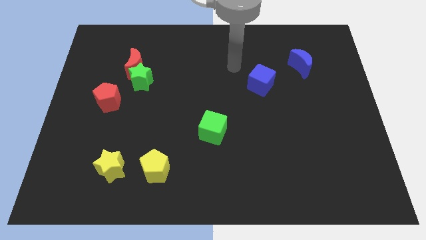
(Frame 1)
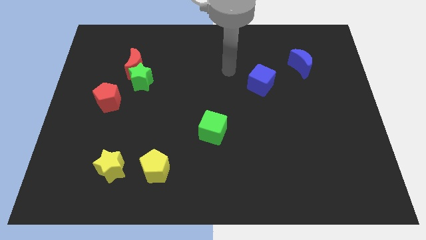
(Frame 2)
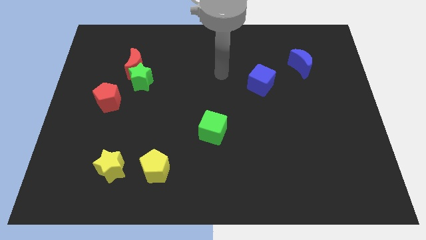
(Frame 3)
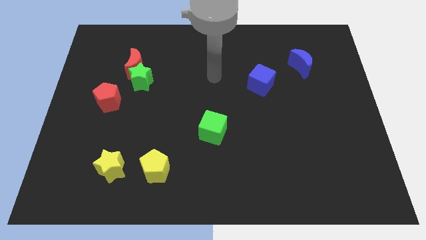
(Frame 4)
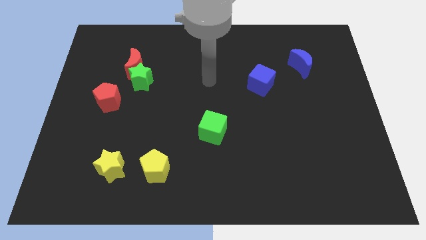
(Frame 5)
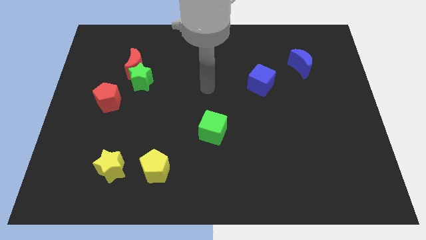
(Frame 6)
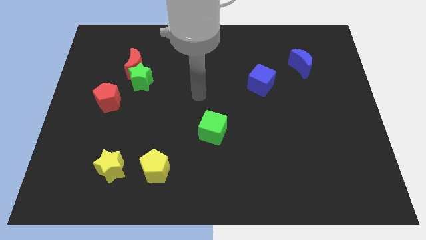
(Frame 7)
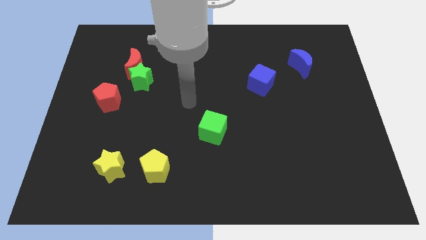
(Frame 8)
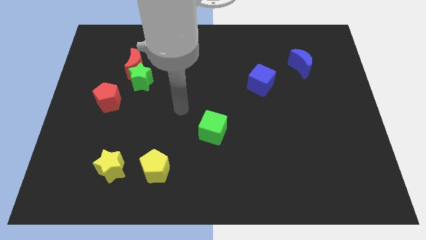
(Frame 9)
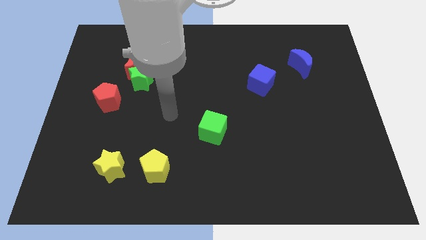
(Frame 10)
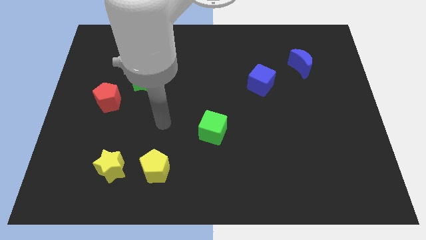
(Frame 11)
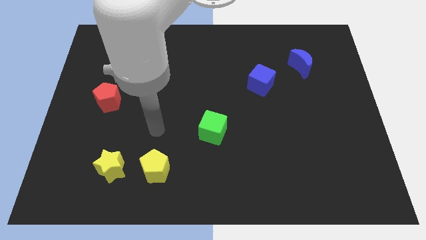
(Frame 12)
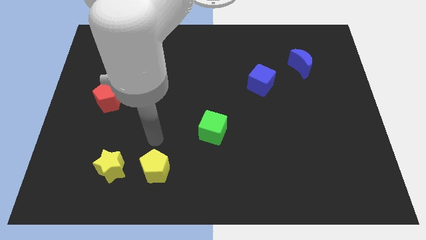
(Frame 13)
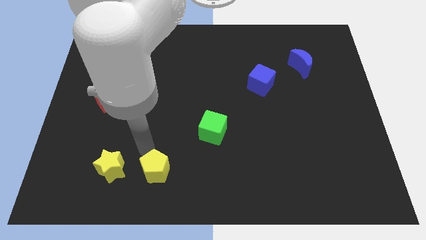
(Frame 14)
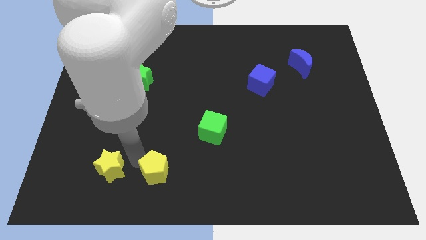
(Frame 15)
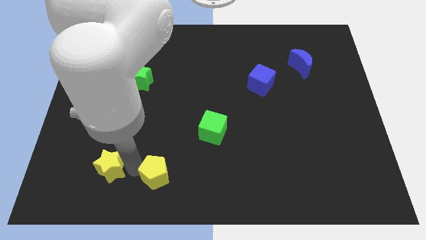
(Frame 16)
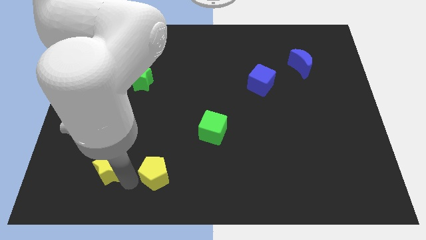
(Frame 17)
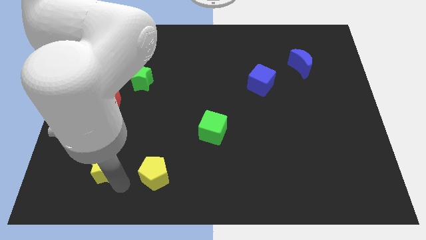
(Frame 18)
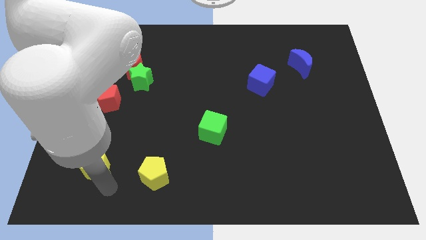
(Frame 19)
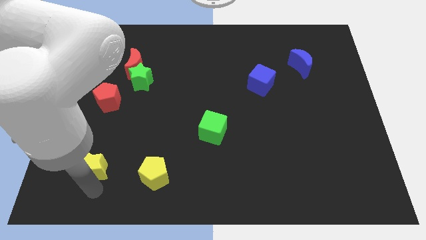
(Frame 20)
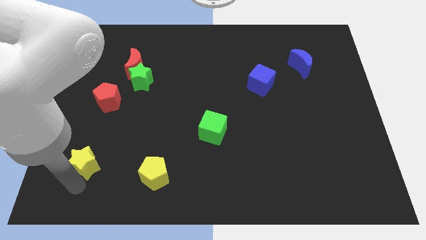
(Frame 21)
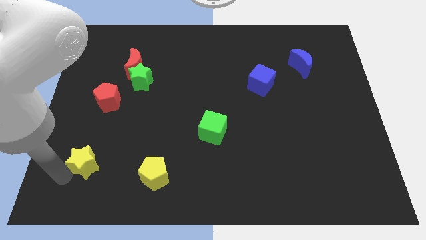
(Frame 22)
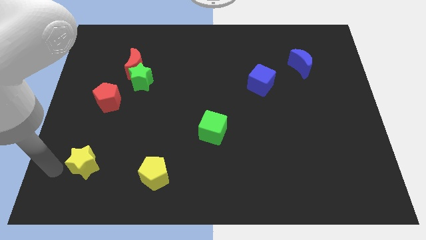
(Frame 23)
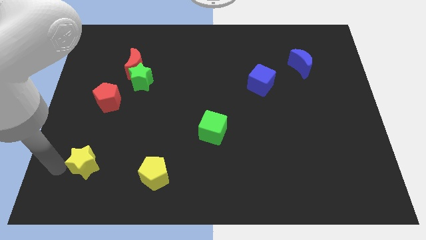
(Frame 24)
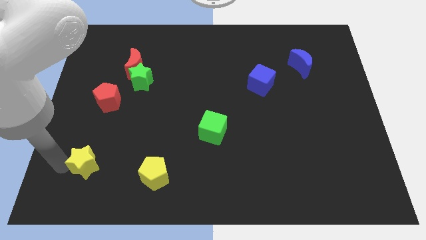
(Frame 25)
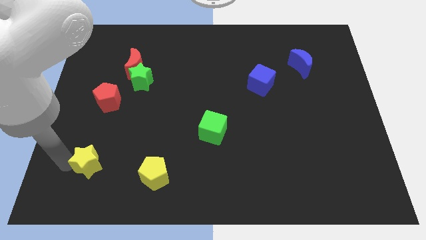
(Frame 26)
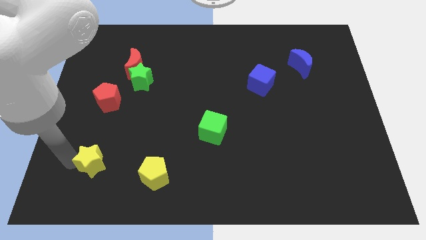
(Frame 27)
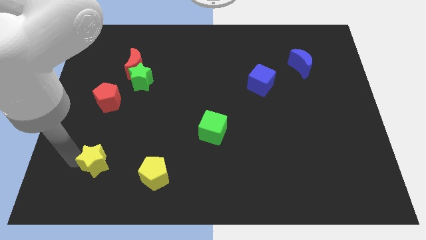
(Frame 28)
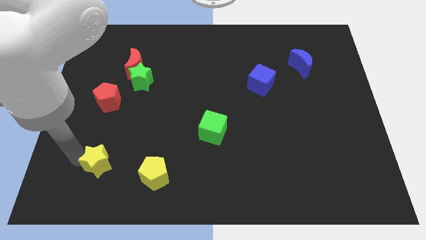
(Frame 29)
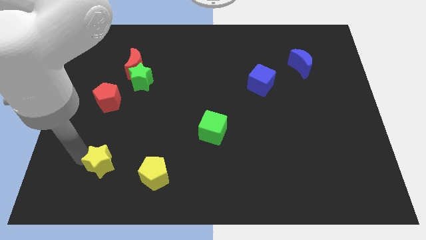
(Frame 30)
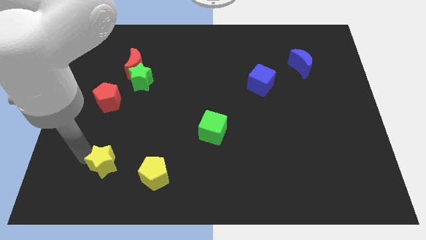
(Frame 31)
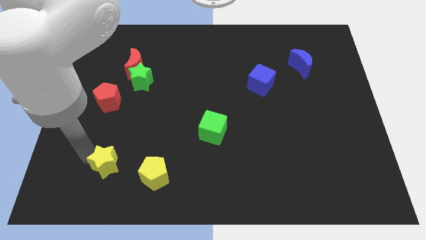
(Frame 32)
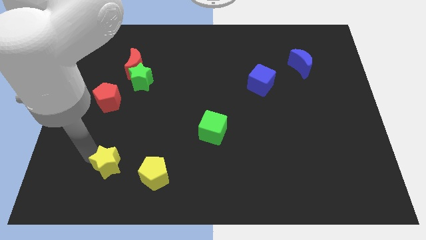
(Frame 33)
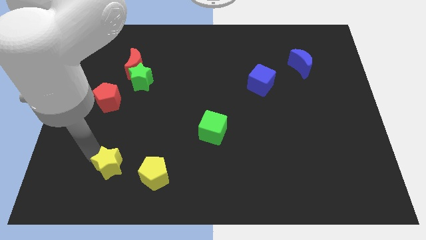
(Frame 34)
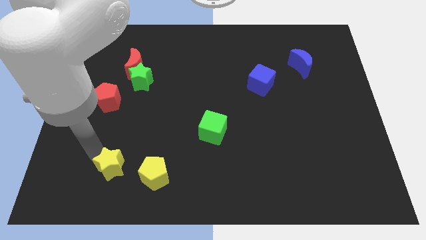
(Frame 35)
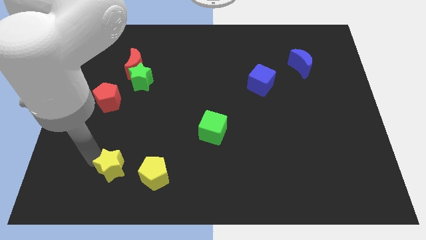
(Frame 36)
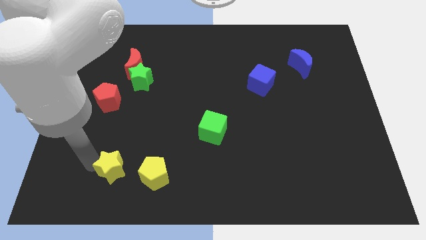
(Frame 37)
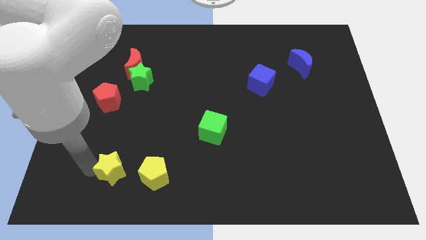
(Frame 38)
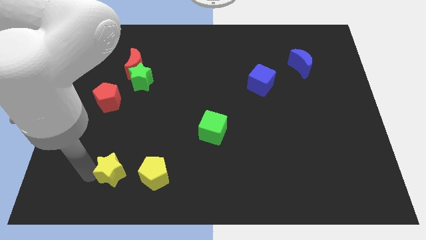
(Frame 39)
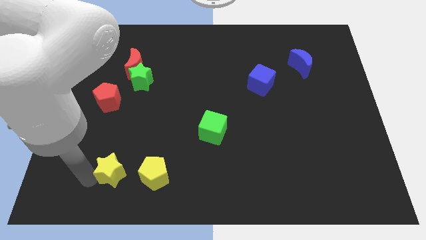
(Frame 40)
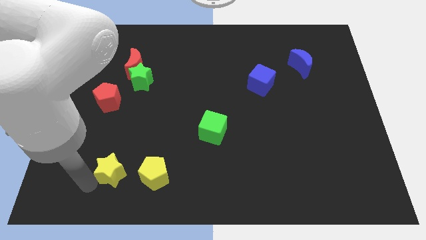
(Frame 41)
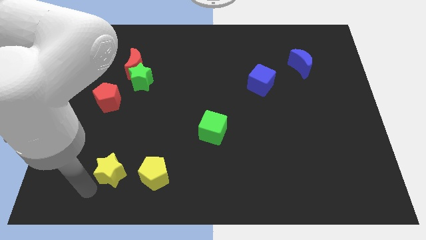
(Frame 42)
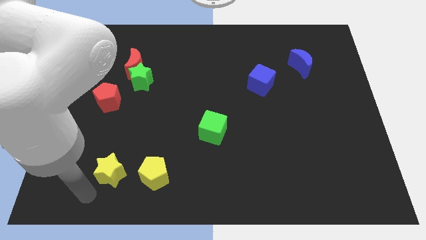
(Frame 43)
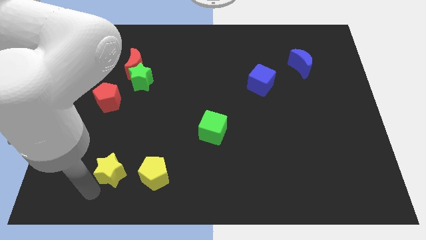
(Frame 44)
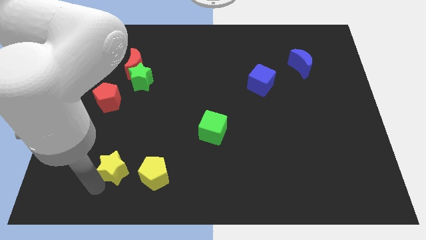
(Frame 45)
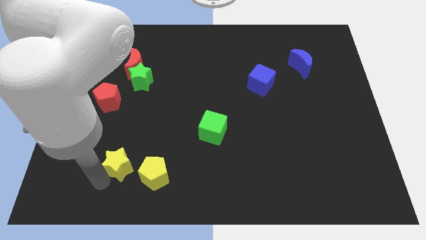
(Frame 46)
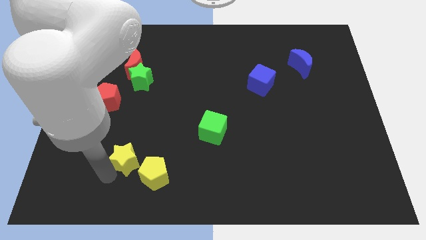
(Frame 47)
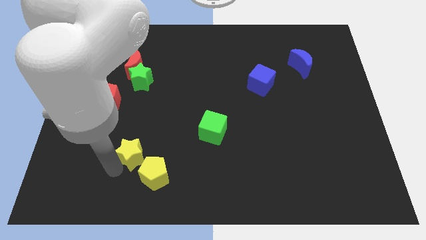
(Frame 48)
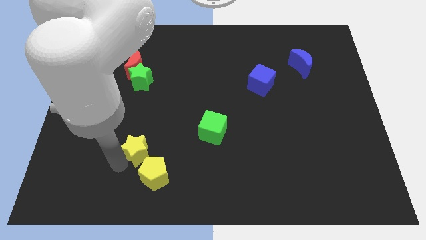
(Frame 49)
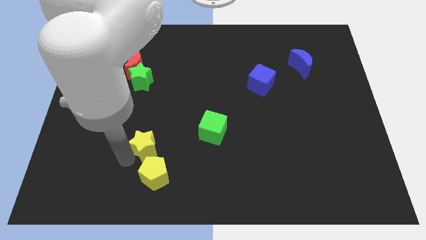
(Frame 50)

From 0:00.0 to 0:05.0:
push the yellow star a bit up and then right

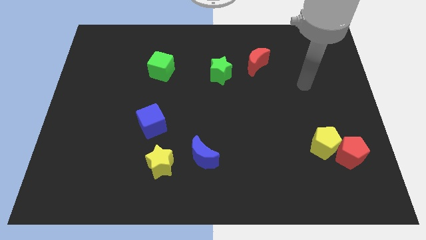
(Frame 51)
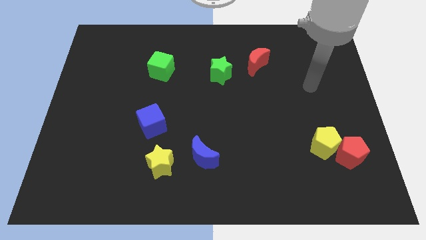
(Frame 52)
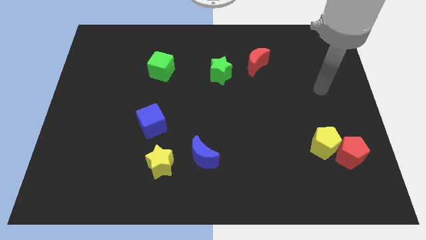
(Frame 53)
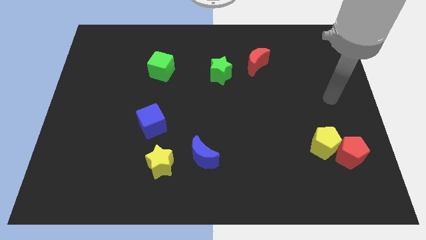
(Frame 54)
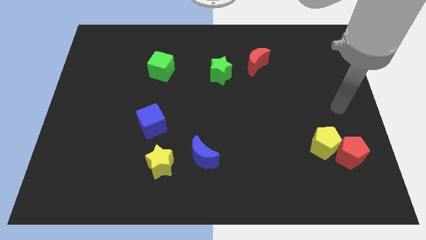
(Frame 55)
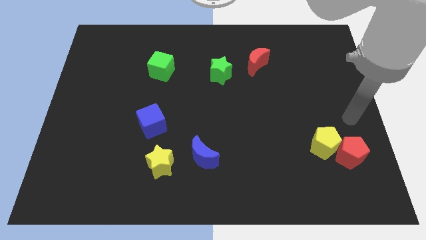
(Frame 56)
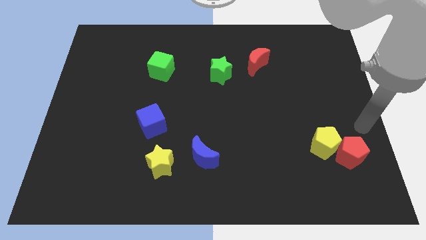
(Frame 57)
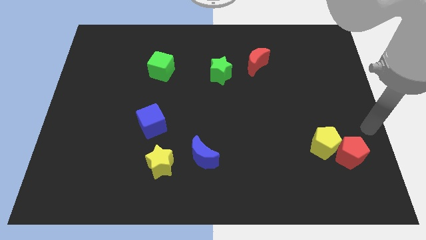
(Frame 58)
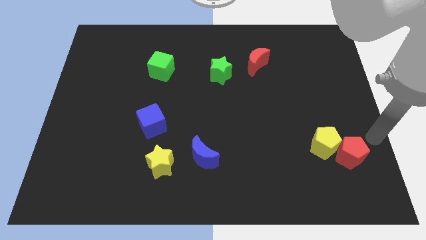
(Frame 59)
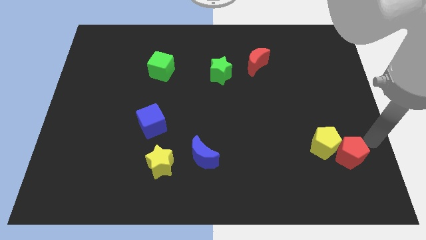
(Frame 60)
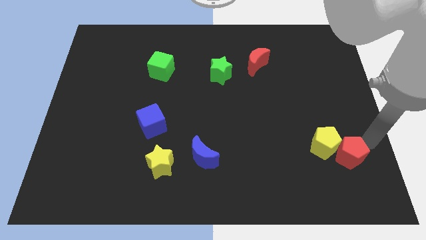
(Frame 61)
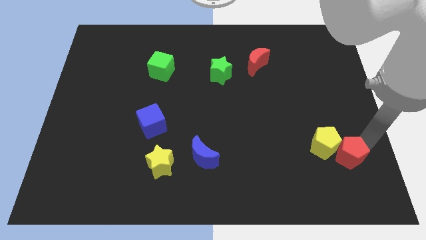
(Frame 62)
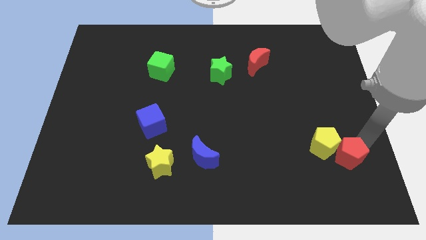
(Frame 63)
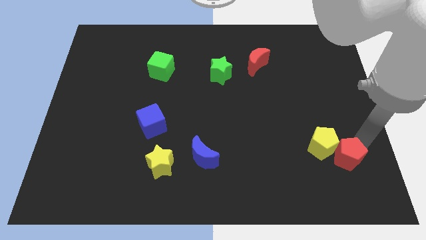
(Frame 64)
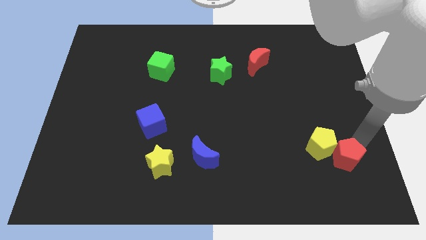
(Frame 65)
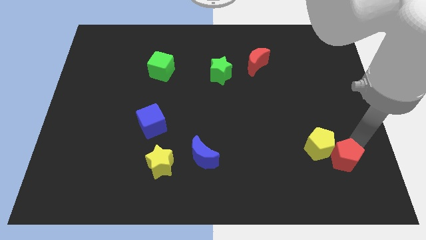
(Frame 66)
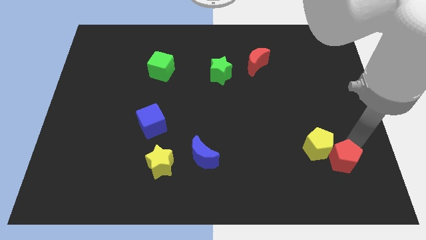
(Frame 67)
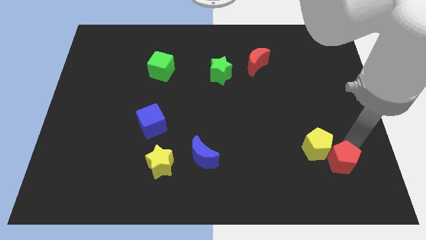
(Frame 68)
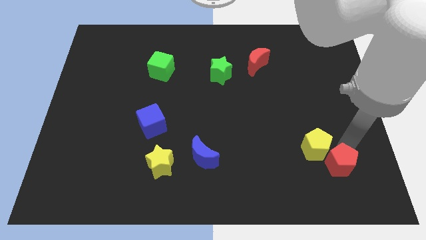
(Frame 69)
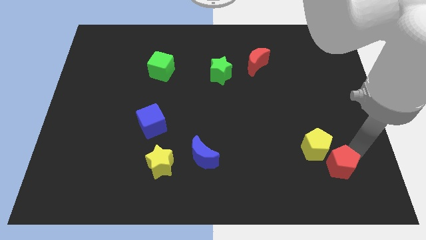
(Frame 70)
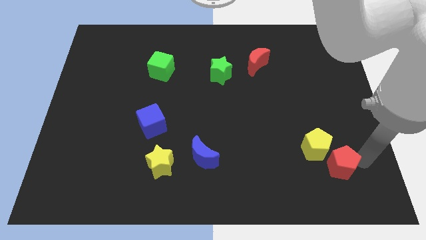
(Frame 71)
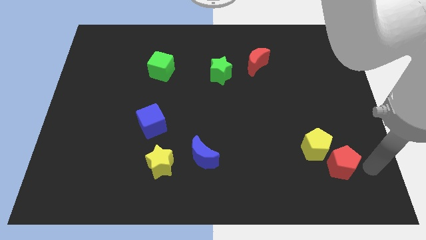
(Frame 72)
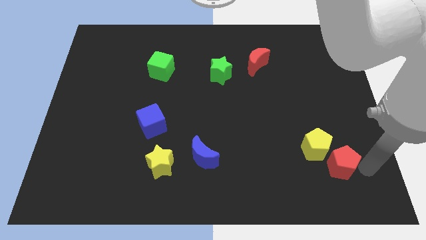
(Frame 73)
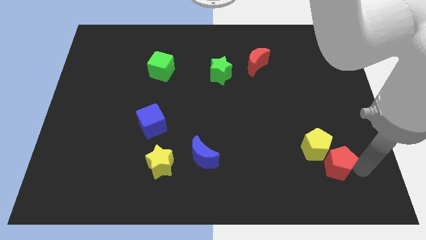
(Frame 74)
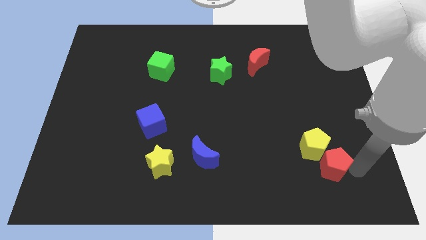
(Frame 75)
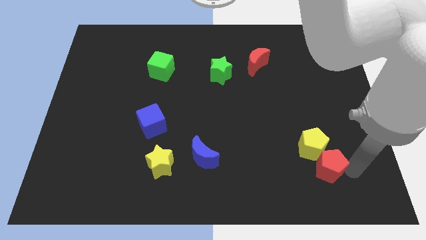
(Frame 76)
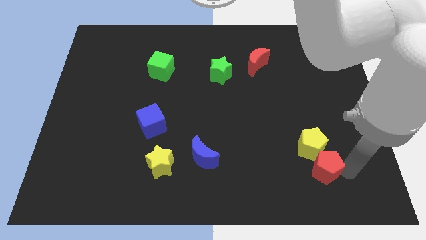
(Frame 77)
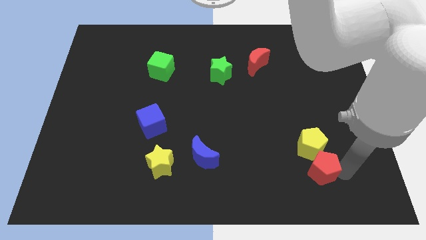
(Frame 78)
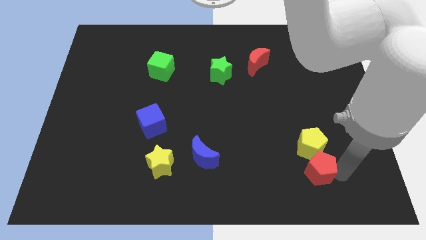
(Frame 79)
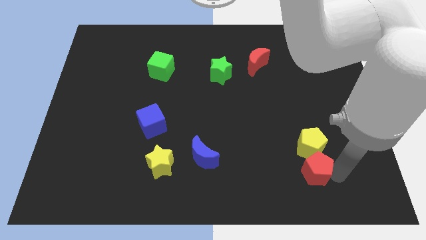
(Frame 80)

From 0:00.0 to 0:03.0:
slightly move the red pentagon to the left
